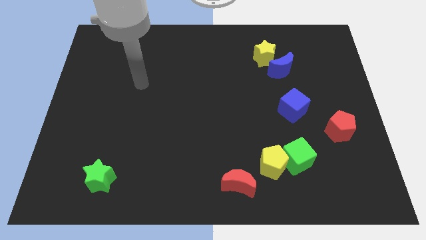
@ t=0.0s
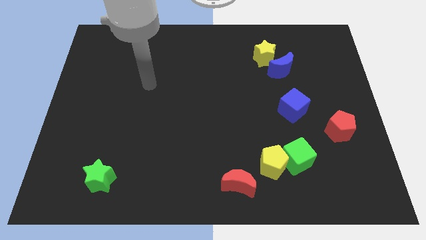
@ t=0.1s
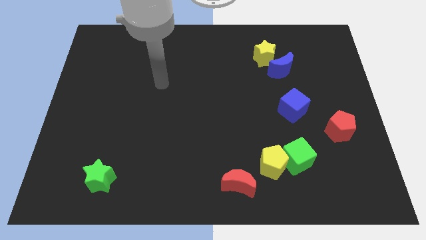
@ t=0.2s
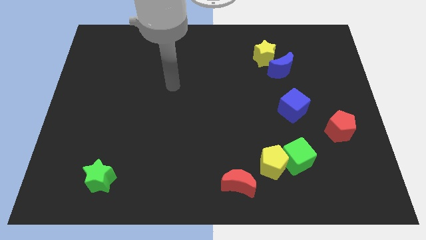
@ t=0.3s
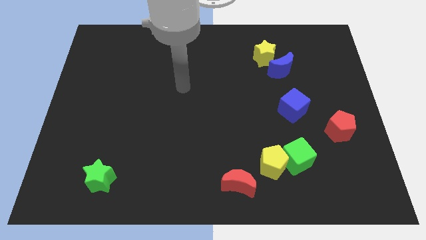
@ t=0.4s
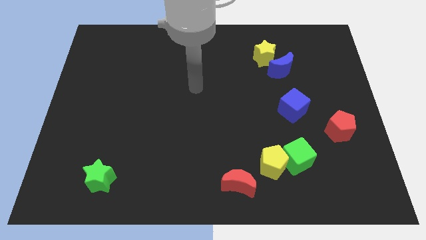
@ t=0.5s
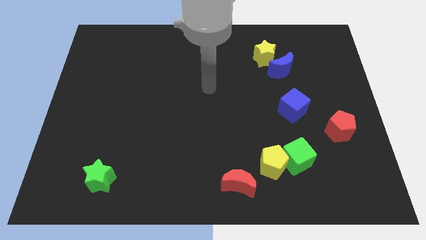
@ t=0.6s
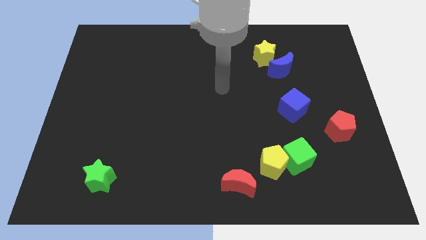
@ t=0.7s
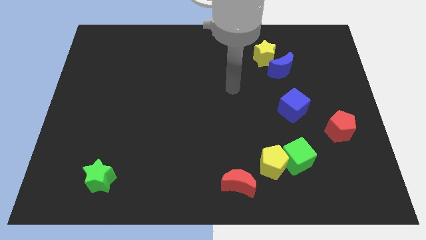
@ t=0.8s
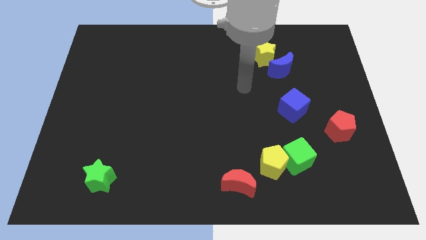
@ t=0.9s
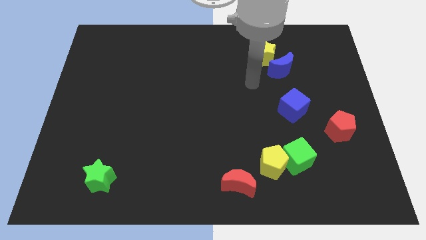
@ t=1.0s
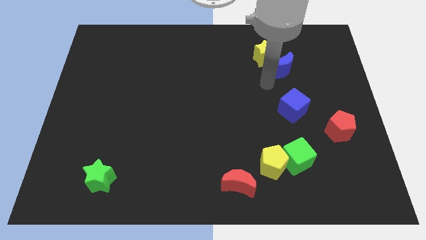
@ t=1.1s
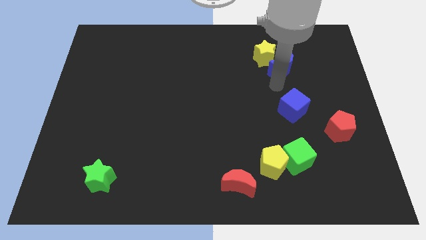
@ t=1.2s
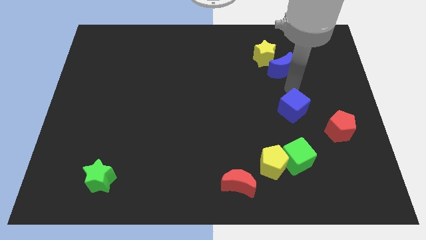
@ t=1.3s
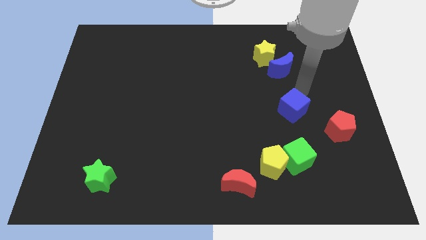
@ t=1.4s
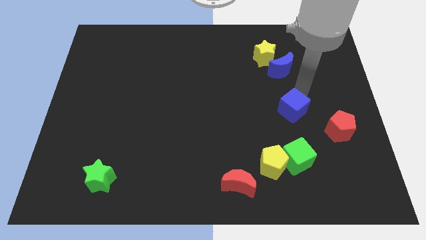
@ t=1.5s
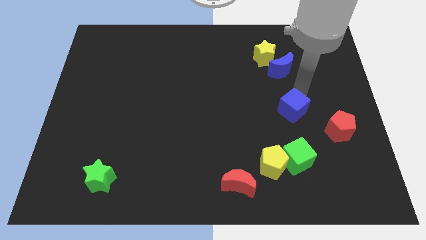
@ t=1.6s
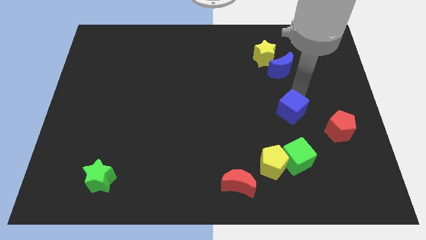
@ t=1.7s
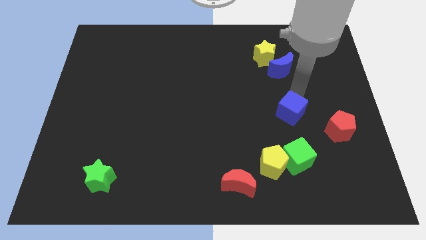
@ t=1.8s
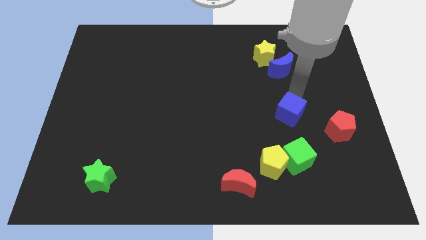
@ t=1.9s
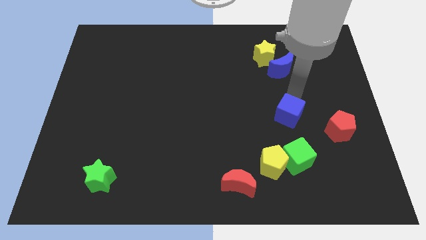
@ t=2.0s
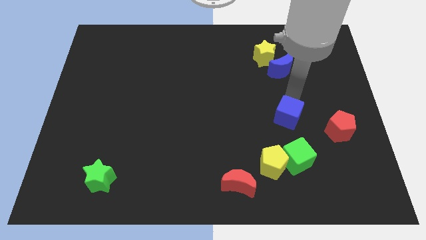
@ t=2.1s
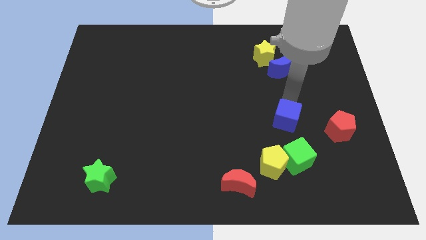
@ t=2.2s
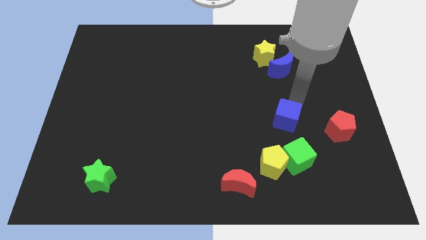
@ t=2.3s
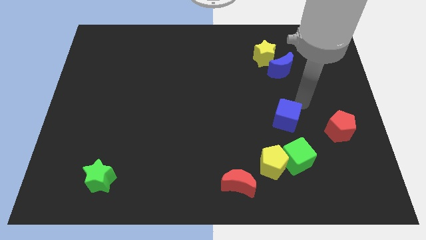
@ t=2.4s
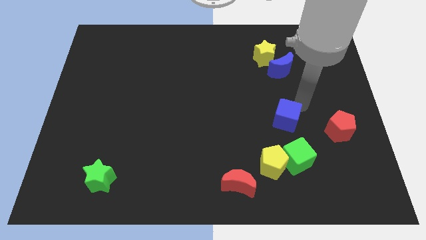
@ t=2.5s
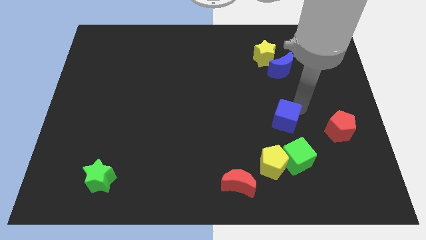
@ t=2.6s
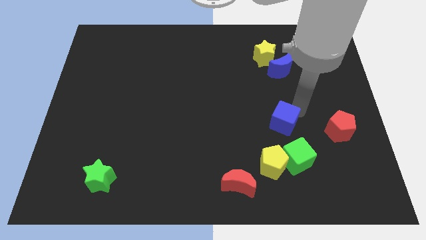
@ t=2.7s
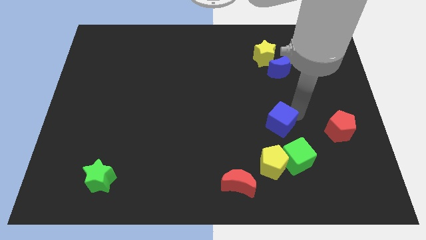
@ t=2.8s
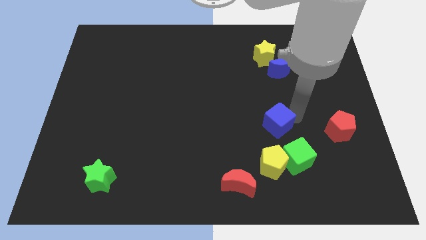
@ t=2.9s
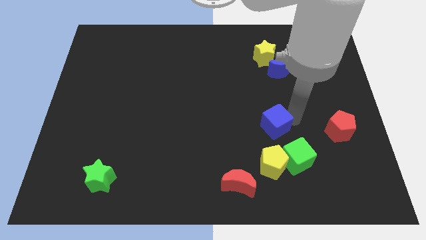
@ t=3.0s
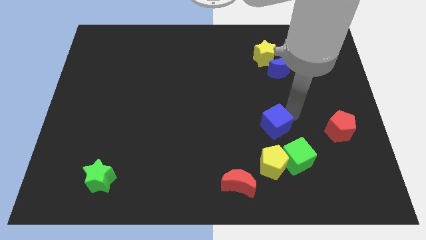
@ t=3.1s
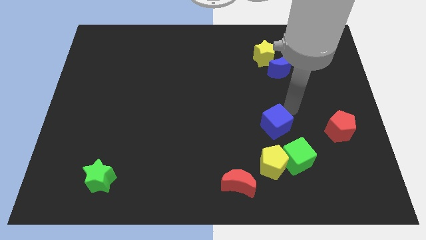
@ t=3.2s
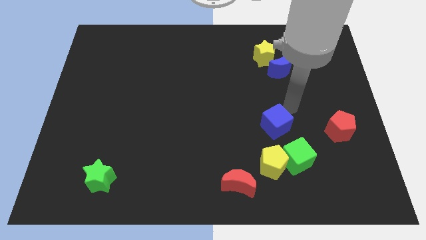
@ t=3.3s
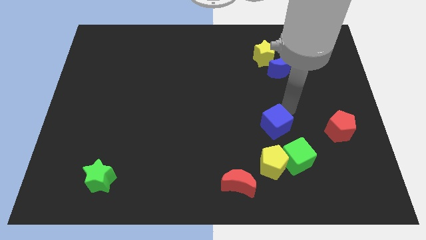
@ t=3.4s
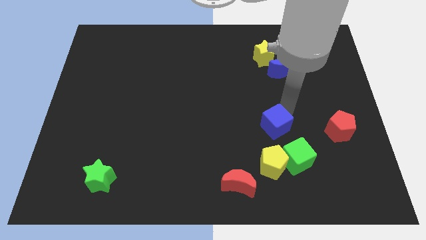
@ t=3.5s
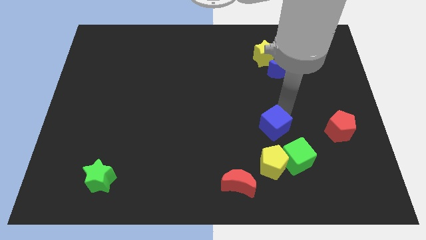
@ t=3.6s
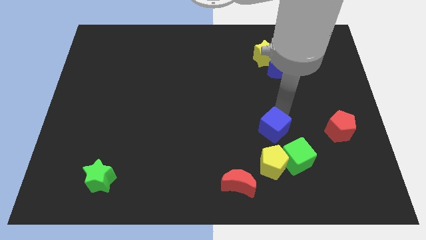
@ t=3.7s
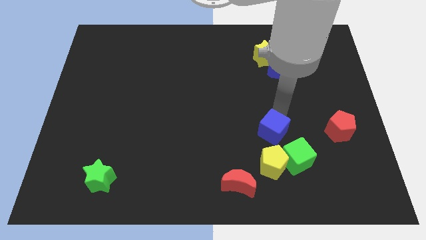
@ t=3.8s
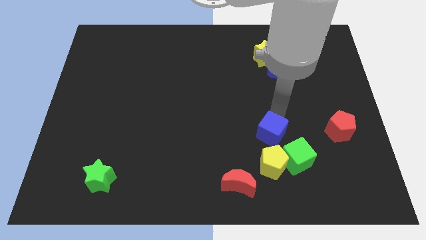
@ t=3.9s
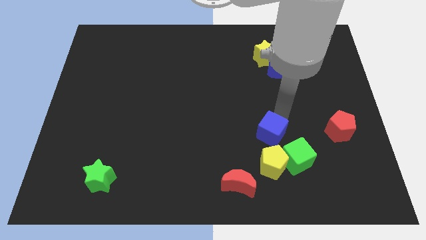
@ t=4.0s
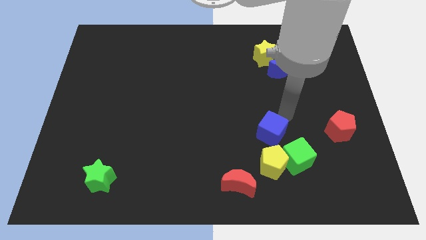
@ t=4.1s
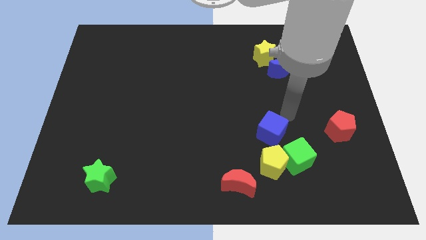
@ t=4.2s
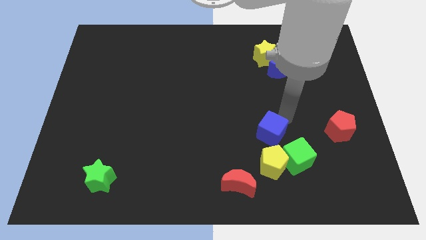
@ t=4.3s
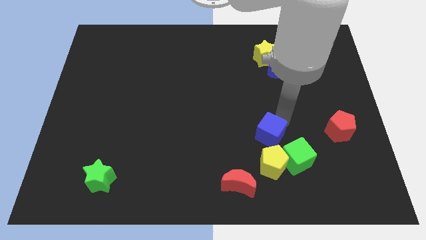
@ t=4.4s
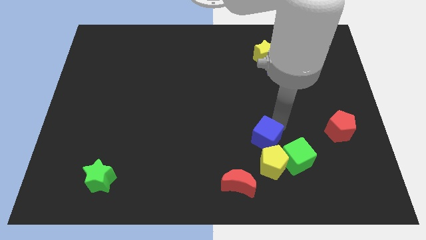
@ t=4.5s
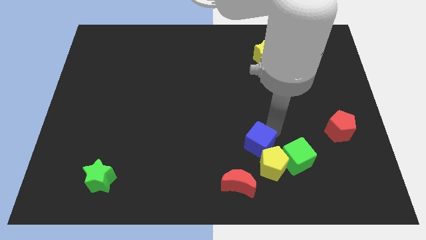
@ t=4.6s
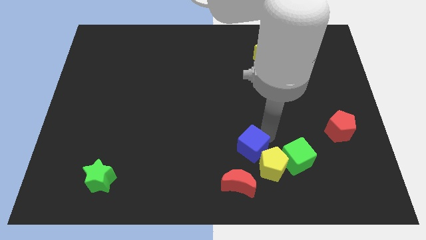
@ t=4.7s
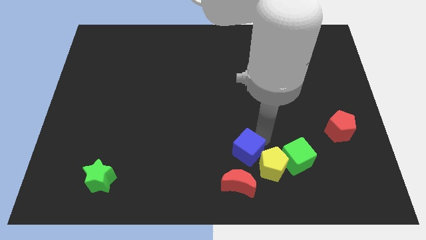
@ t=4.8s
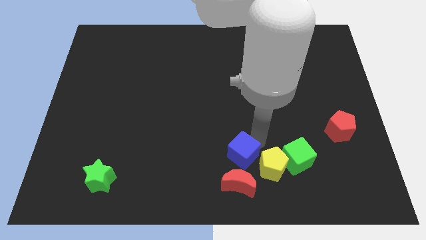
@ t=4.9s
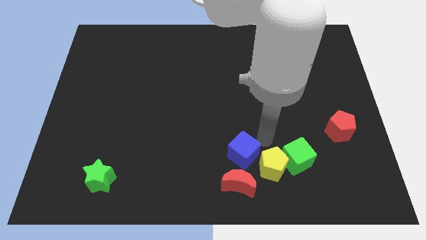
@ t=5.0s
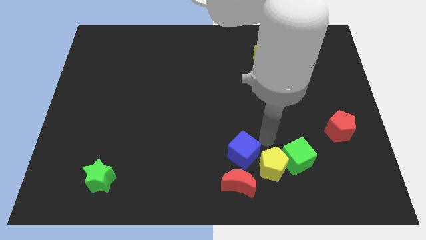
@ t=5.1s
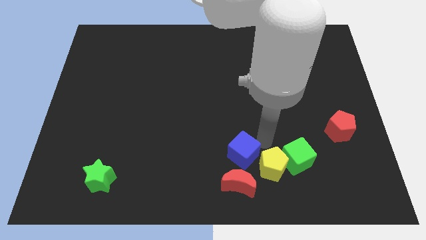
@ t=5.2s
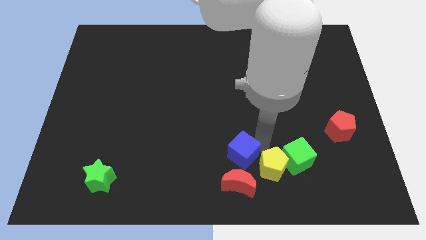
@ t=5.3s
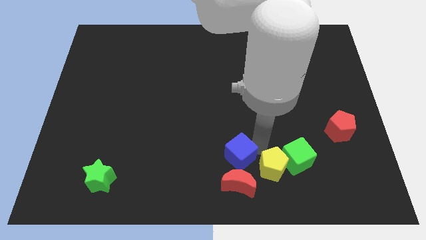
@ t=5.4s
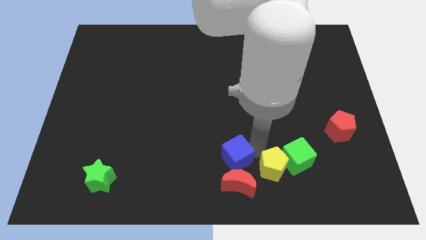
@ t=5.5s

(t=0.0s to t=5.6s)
push the blue cube to the bottom

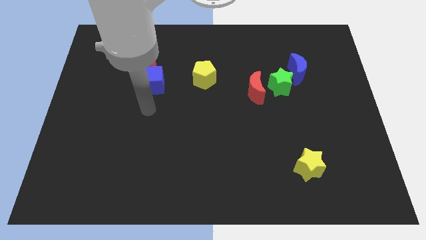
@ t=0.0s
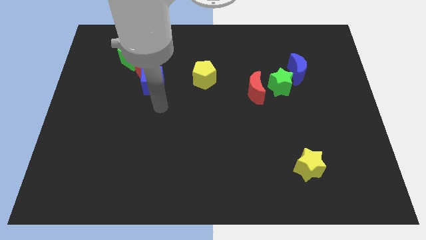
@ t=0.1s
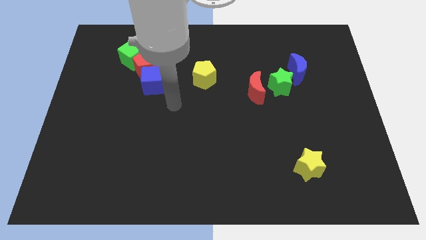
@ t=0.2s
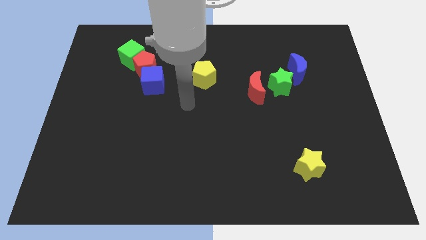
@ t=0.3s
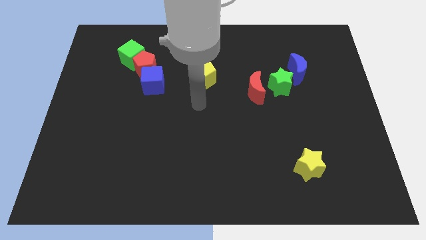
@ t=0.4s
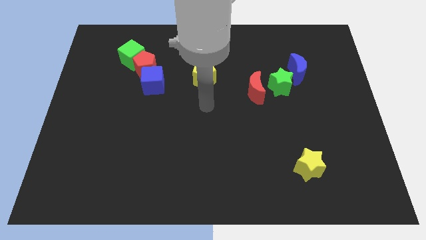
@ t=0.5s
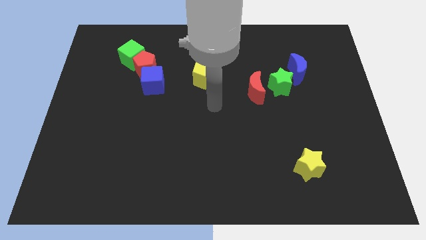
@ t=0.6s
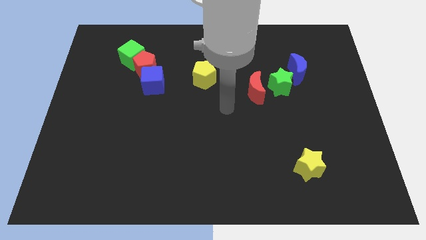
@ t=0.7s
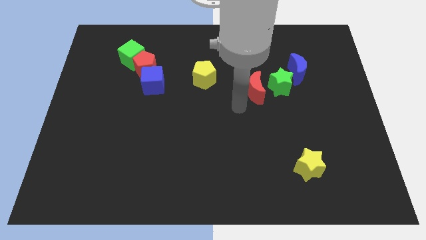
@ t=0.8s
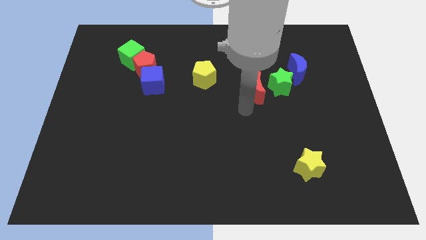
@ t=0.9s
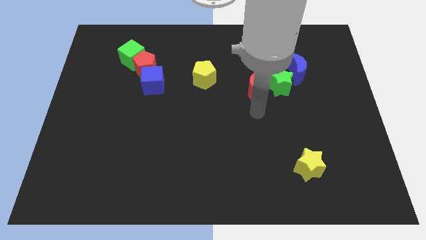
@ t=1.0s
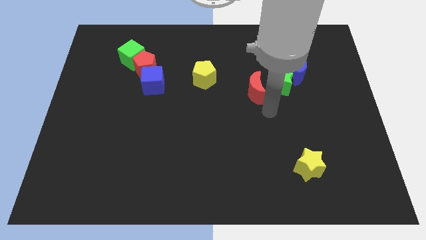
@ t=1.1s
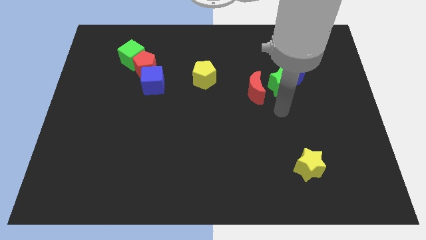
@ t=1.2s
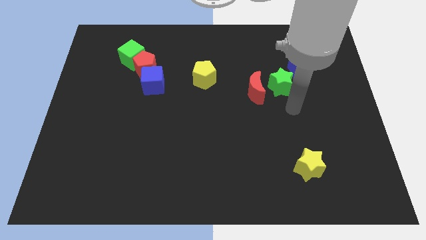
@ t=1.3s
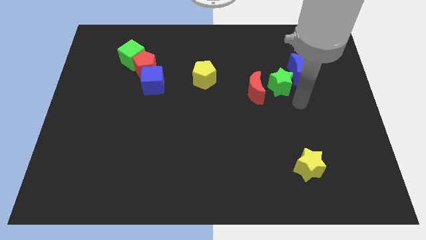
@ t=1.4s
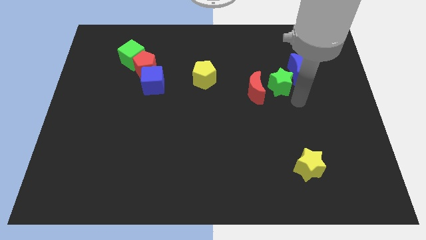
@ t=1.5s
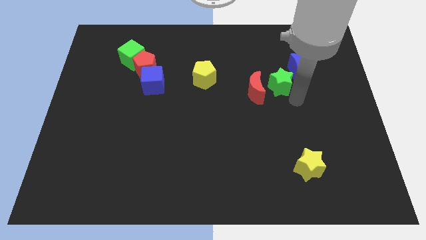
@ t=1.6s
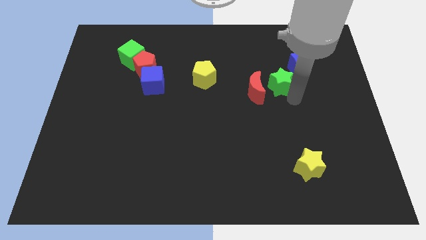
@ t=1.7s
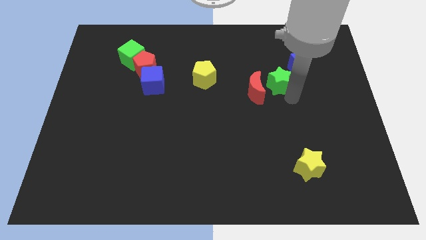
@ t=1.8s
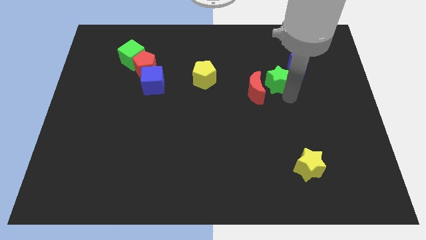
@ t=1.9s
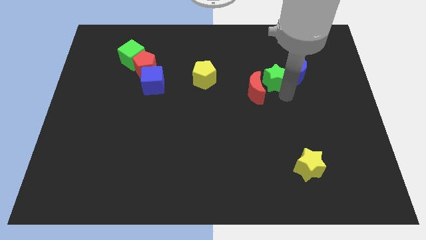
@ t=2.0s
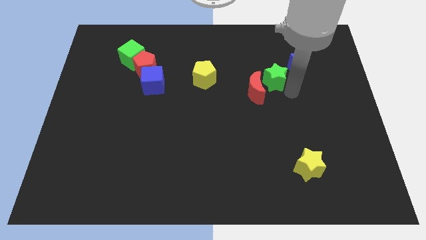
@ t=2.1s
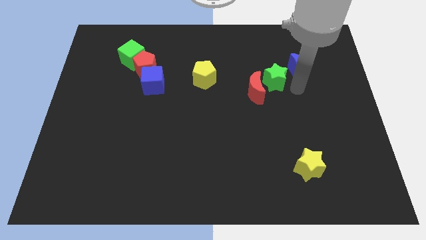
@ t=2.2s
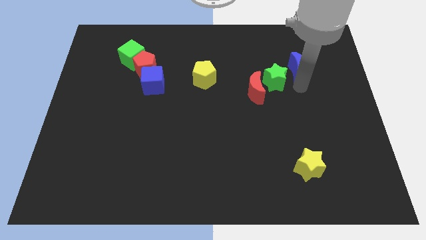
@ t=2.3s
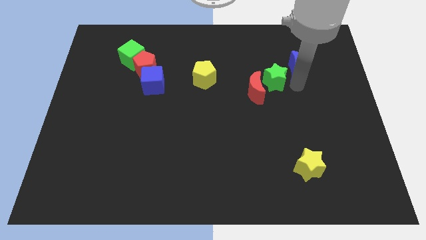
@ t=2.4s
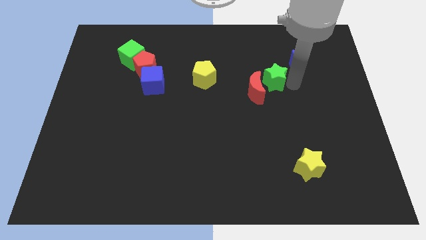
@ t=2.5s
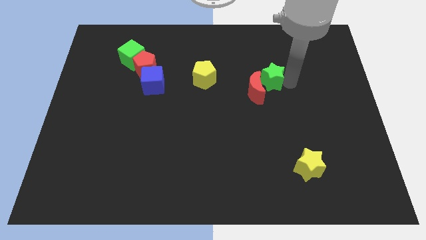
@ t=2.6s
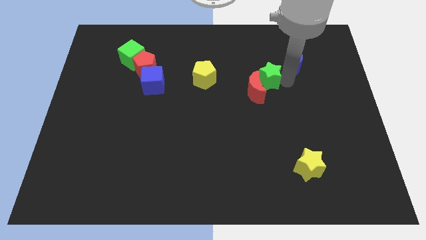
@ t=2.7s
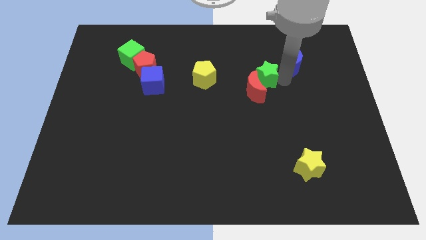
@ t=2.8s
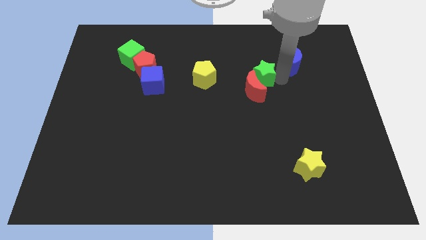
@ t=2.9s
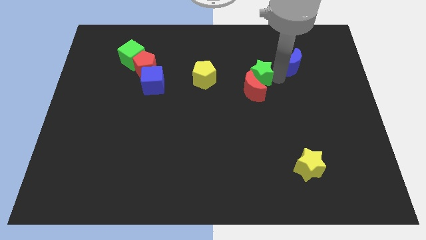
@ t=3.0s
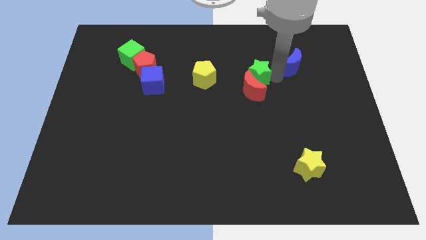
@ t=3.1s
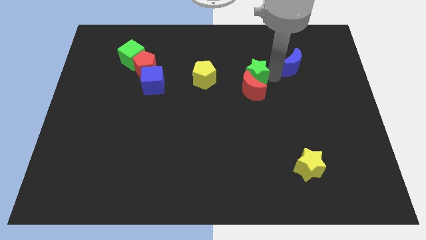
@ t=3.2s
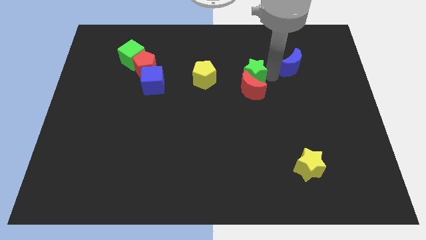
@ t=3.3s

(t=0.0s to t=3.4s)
put the green star to the middle of the board
